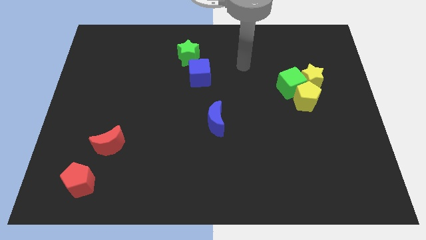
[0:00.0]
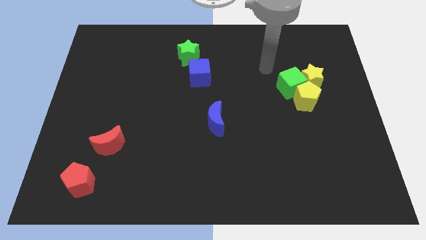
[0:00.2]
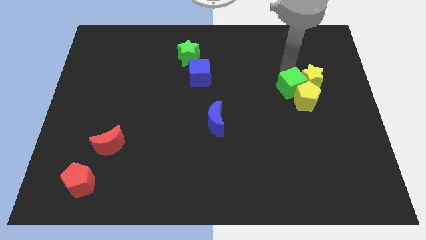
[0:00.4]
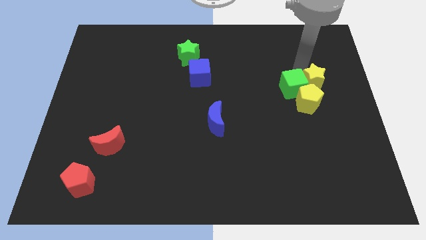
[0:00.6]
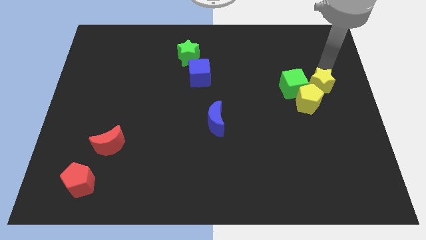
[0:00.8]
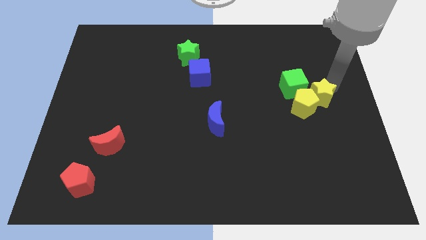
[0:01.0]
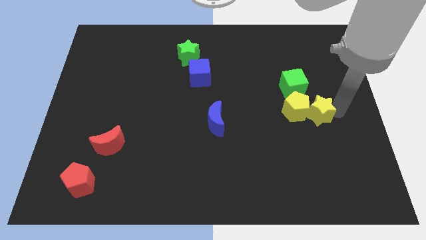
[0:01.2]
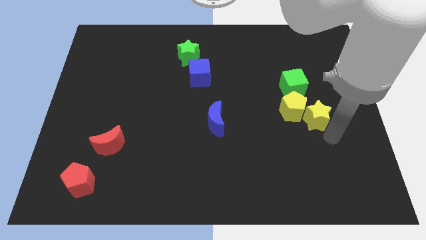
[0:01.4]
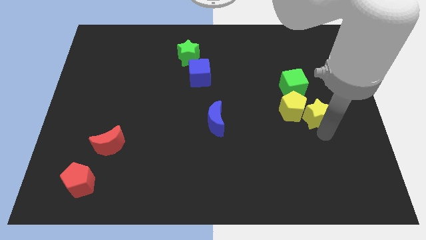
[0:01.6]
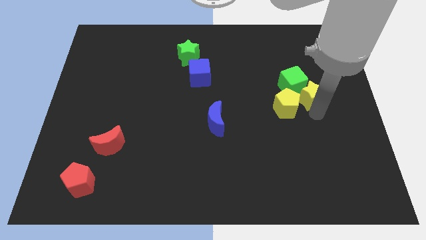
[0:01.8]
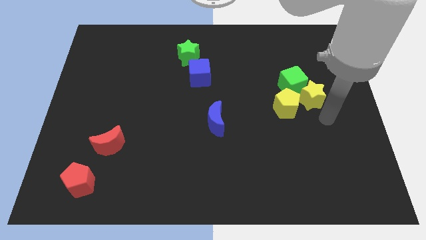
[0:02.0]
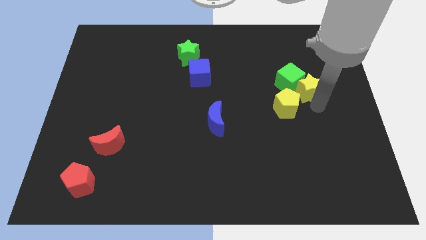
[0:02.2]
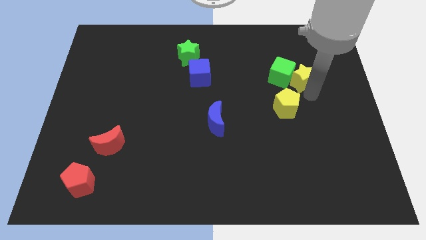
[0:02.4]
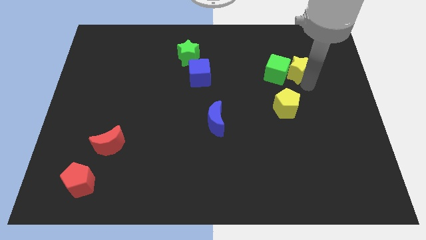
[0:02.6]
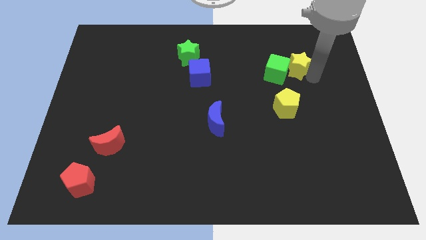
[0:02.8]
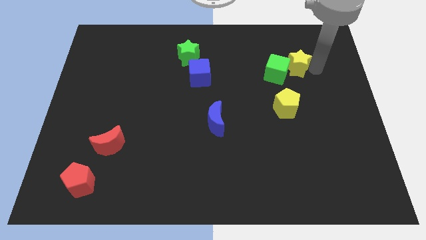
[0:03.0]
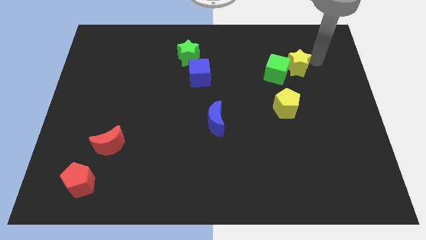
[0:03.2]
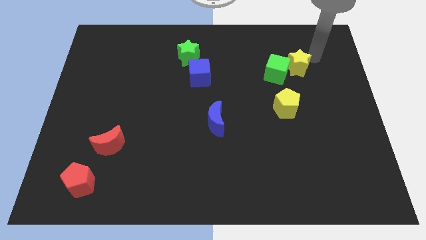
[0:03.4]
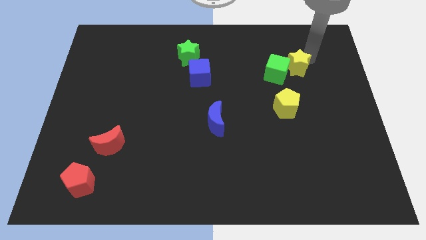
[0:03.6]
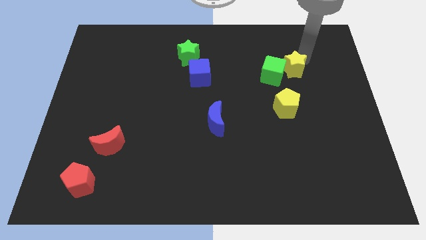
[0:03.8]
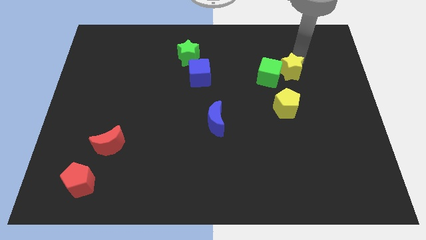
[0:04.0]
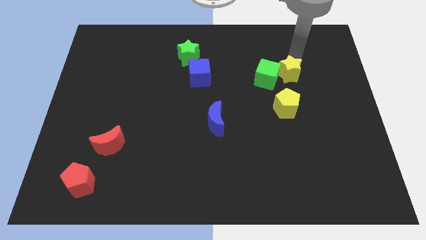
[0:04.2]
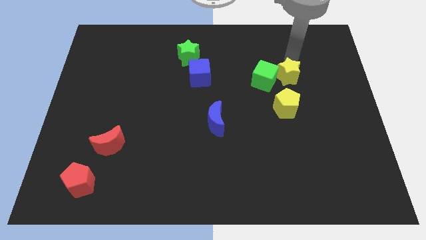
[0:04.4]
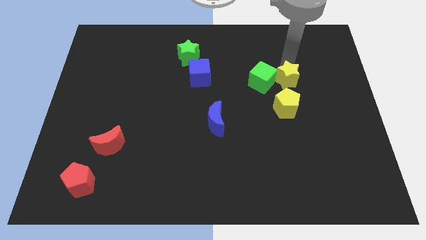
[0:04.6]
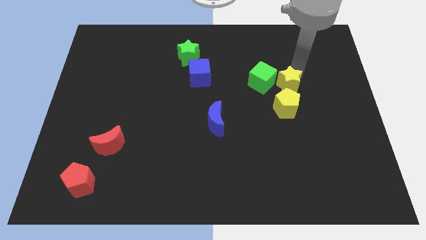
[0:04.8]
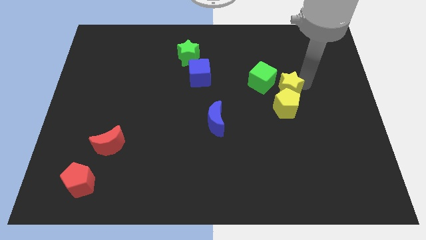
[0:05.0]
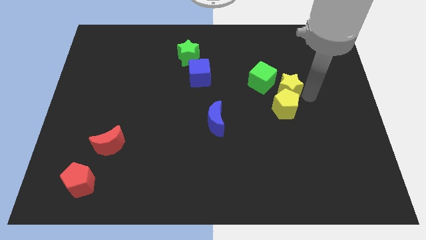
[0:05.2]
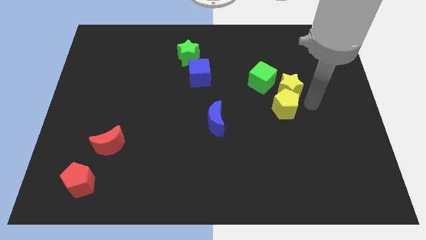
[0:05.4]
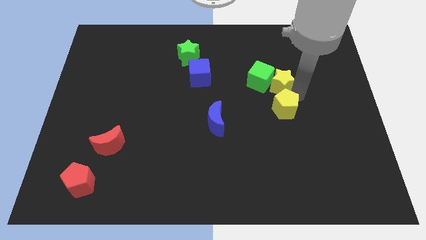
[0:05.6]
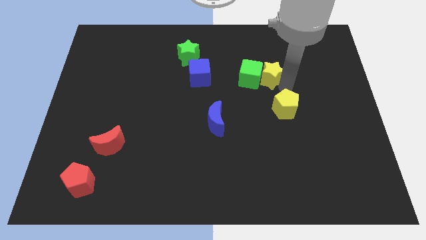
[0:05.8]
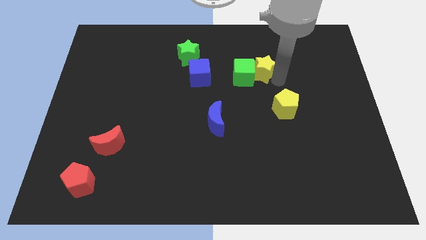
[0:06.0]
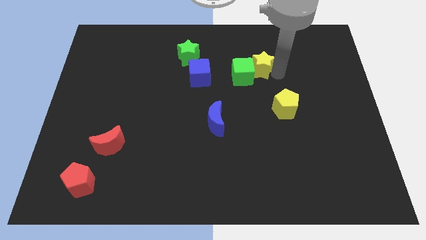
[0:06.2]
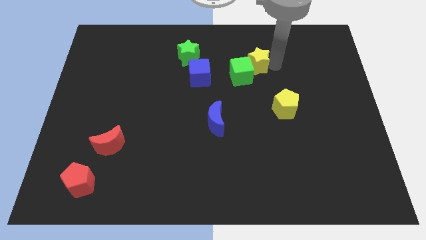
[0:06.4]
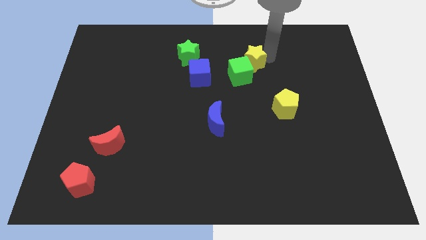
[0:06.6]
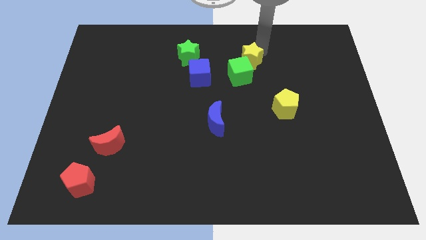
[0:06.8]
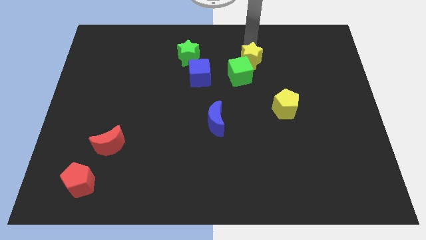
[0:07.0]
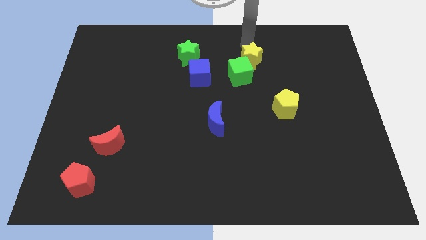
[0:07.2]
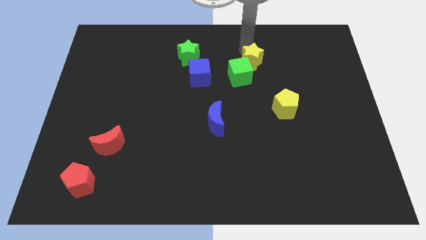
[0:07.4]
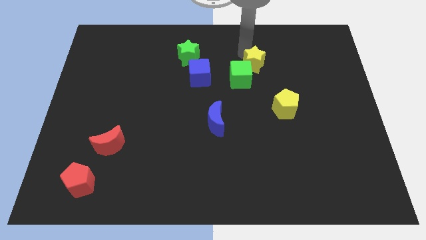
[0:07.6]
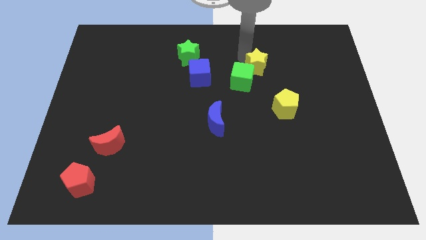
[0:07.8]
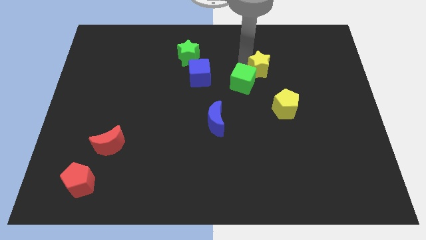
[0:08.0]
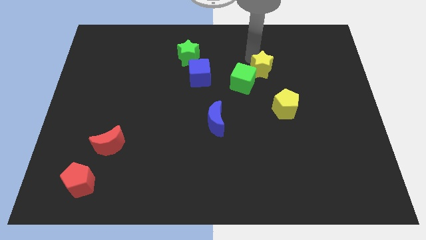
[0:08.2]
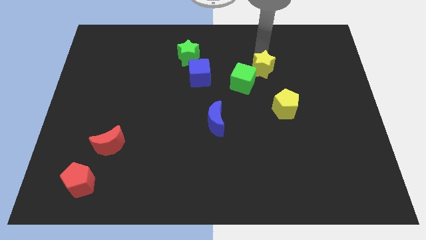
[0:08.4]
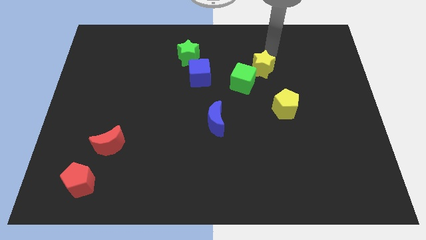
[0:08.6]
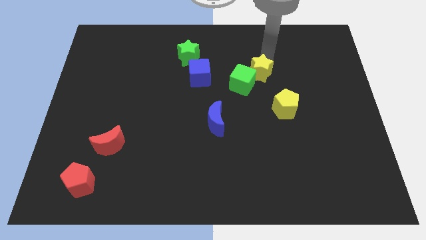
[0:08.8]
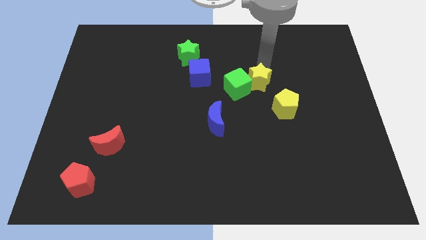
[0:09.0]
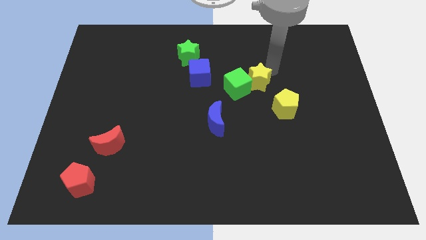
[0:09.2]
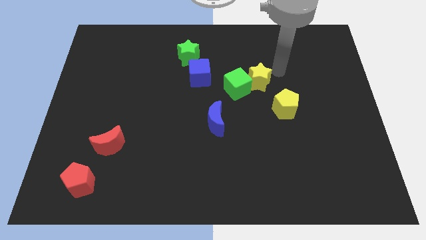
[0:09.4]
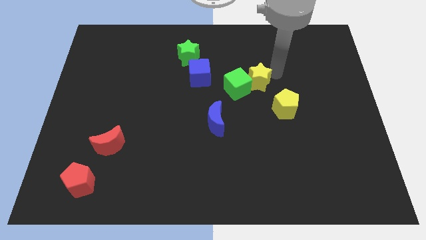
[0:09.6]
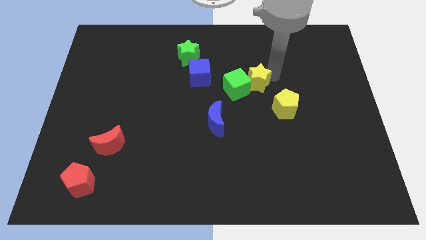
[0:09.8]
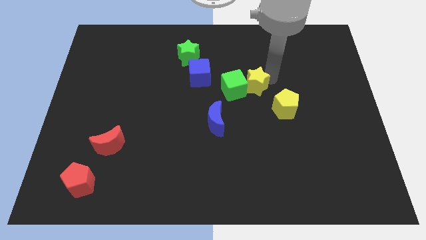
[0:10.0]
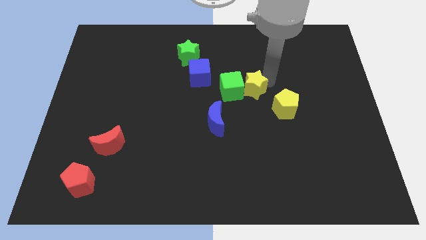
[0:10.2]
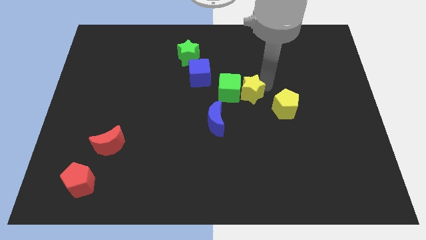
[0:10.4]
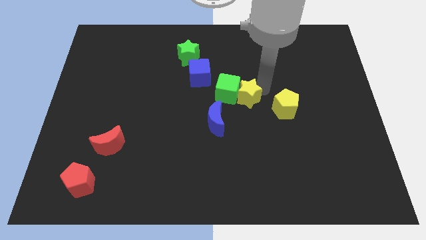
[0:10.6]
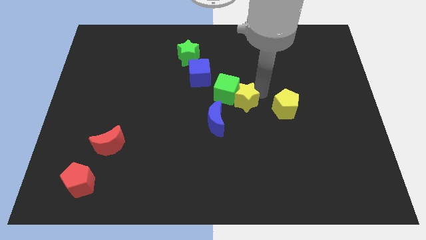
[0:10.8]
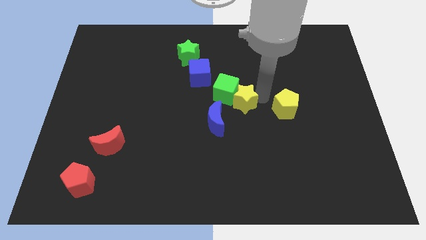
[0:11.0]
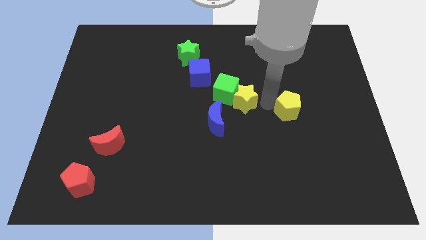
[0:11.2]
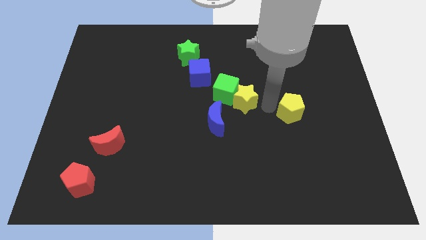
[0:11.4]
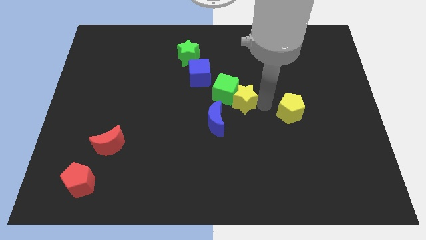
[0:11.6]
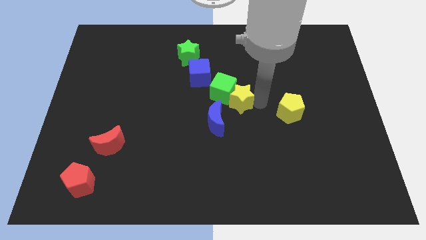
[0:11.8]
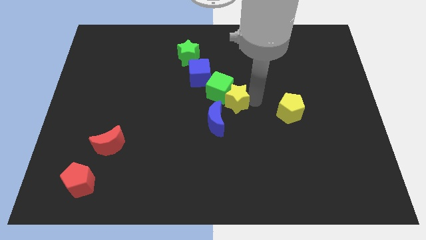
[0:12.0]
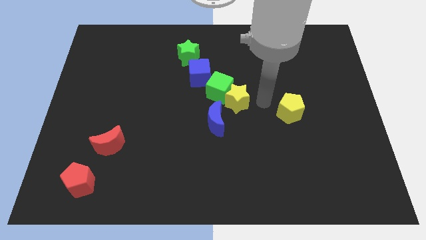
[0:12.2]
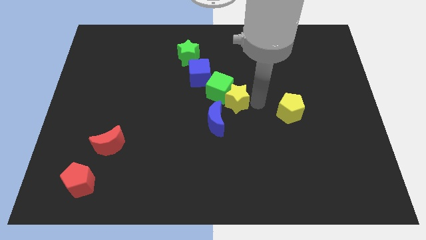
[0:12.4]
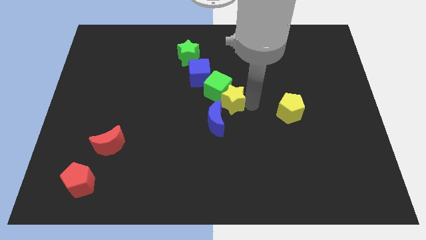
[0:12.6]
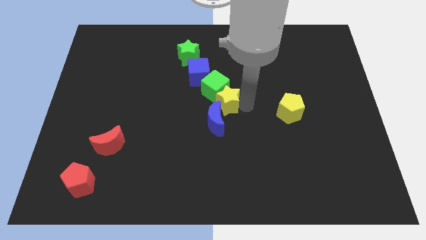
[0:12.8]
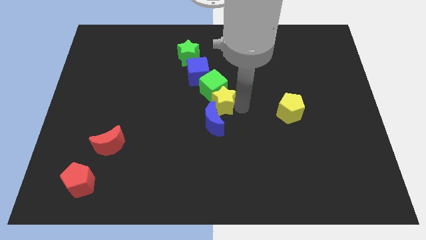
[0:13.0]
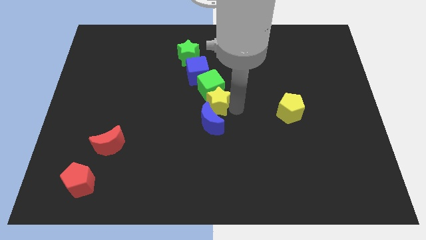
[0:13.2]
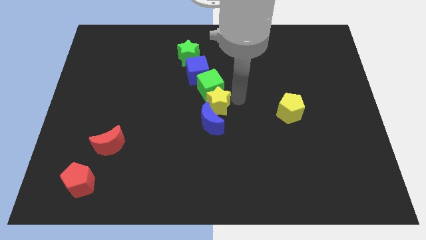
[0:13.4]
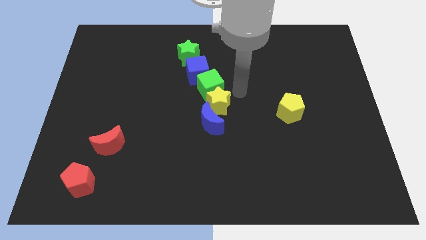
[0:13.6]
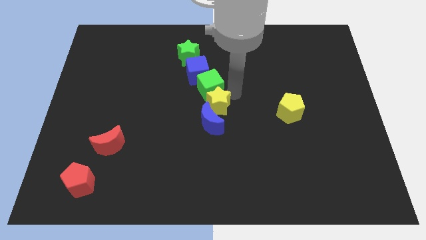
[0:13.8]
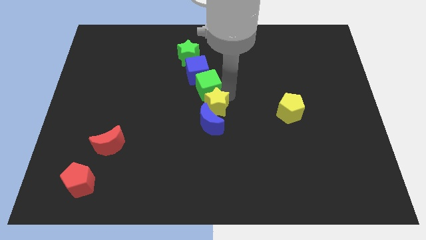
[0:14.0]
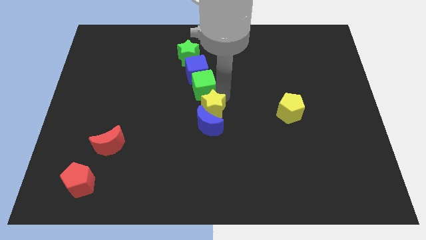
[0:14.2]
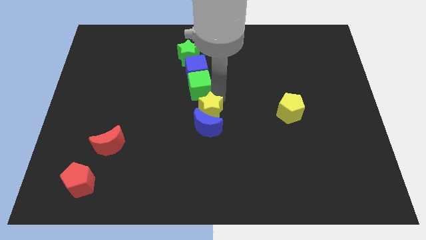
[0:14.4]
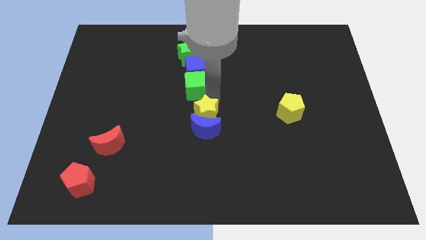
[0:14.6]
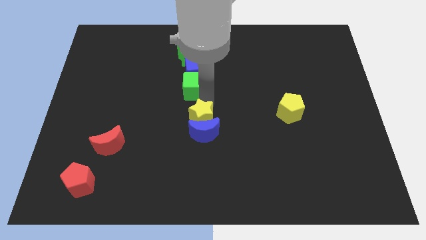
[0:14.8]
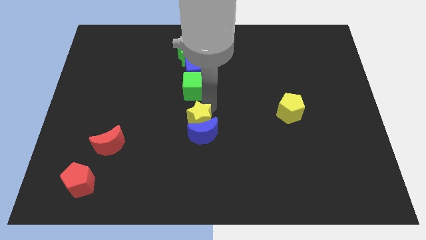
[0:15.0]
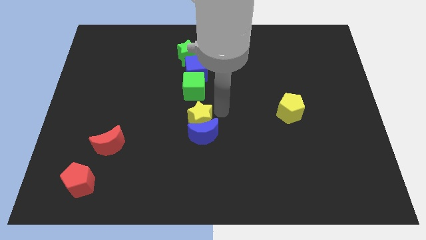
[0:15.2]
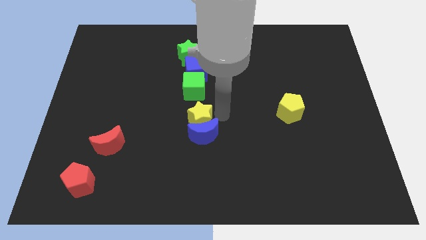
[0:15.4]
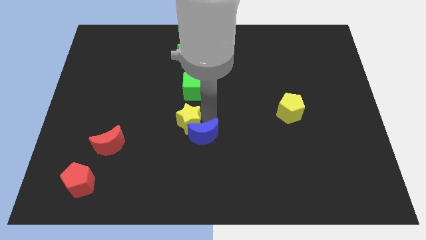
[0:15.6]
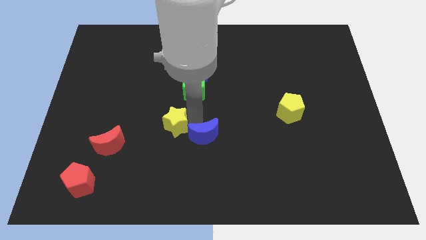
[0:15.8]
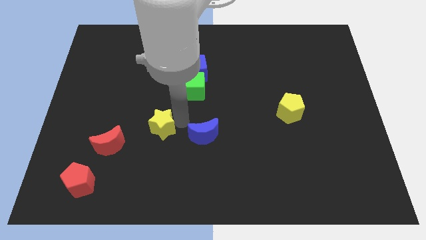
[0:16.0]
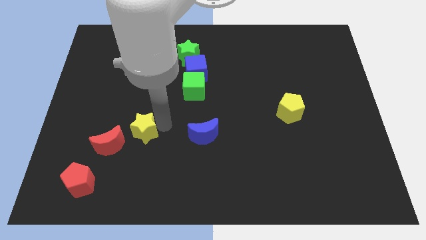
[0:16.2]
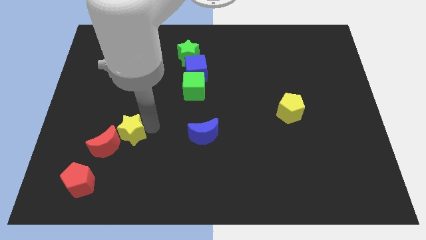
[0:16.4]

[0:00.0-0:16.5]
put the yellow star close to the red moon
